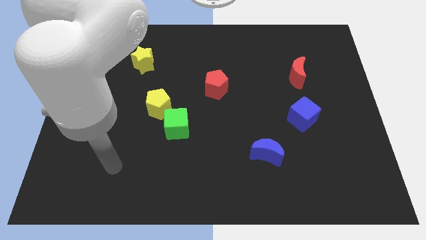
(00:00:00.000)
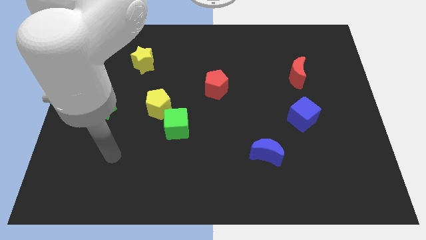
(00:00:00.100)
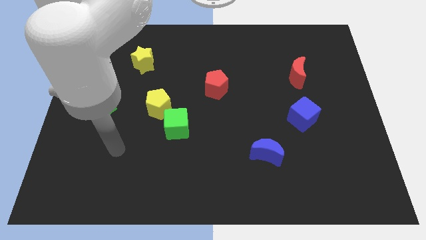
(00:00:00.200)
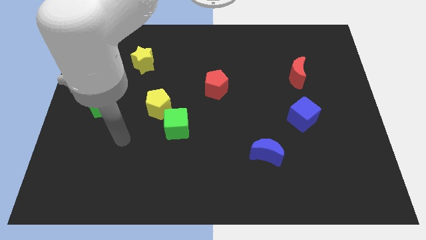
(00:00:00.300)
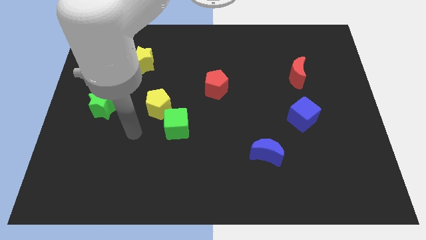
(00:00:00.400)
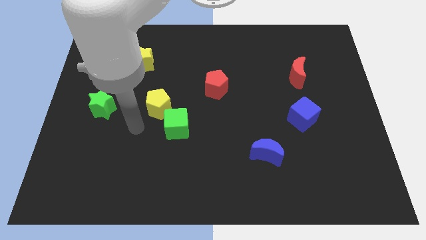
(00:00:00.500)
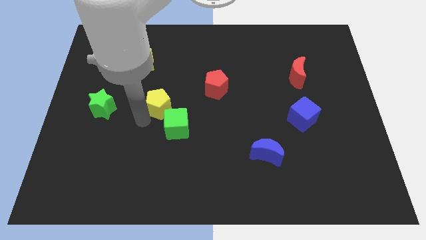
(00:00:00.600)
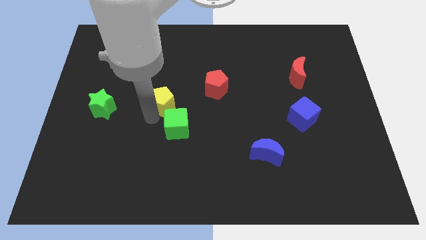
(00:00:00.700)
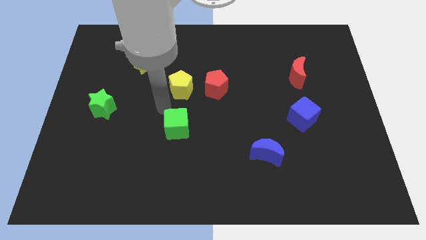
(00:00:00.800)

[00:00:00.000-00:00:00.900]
move the green cube away from the yellow pentagon

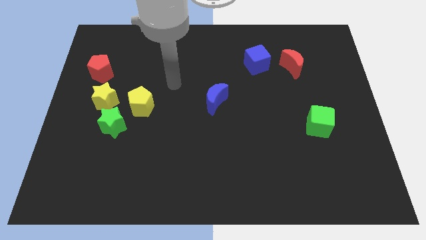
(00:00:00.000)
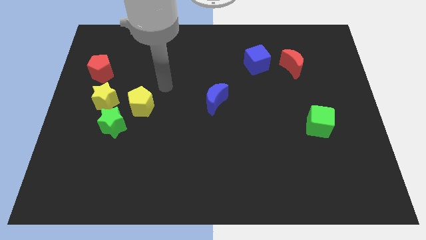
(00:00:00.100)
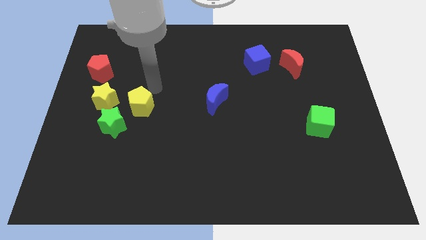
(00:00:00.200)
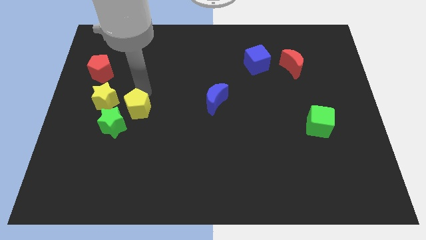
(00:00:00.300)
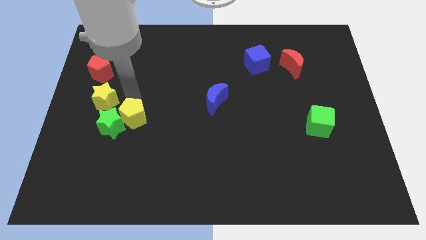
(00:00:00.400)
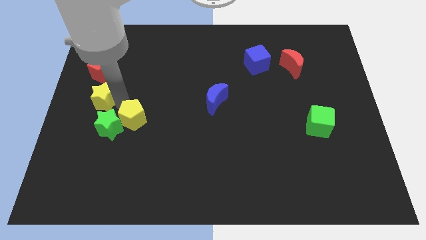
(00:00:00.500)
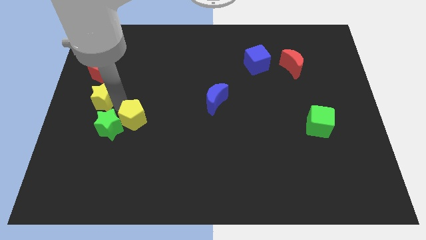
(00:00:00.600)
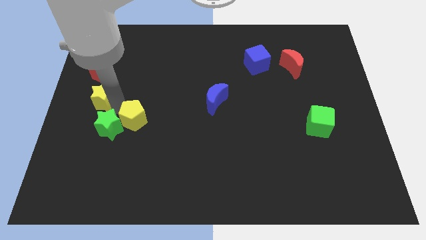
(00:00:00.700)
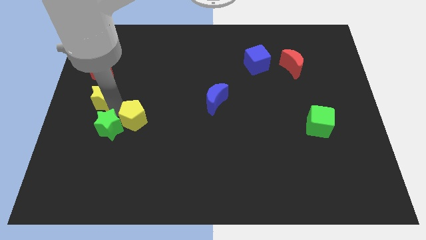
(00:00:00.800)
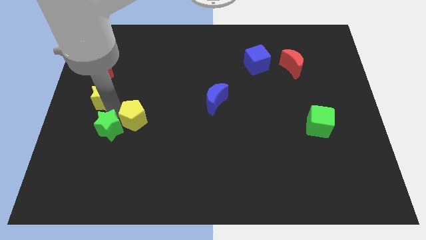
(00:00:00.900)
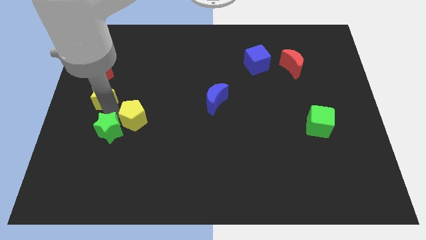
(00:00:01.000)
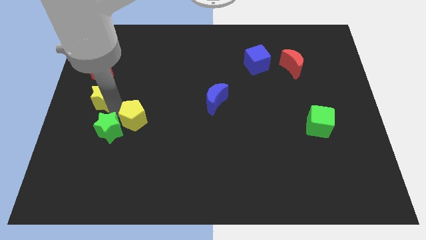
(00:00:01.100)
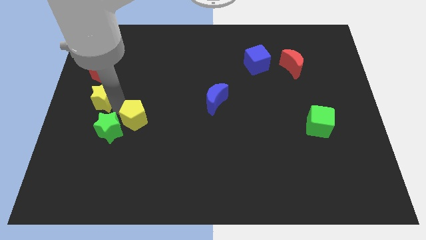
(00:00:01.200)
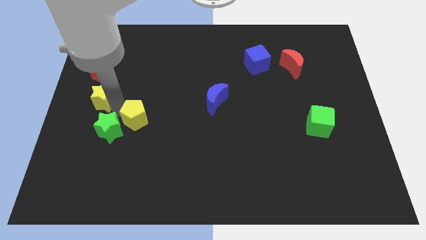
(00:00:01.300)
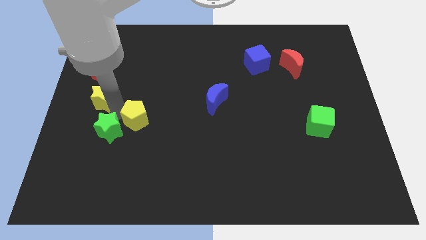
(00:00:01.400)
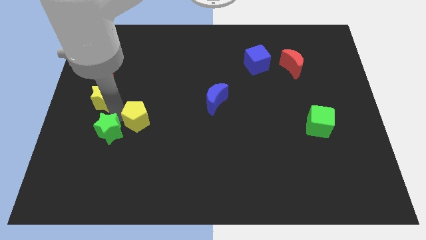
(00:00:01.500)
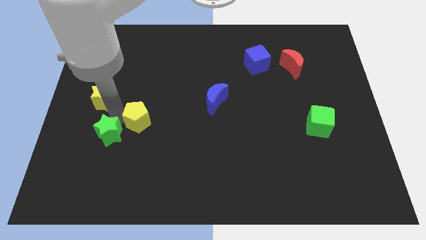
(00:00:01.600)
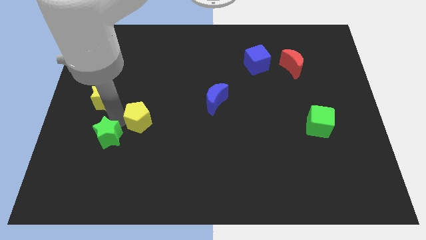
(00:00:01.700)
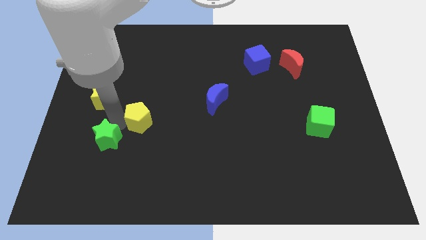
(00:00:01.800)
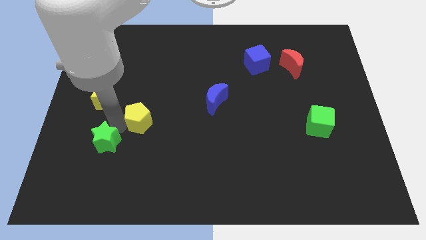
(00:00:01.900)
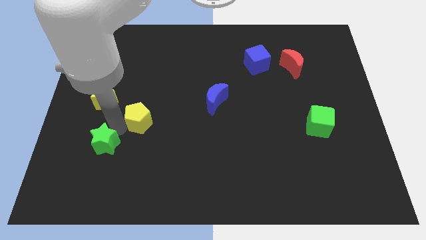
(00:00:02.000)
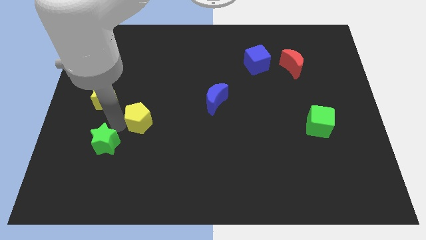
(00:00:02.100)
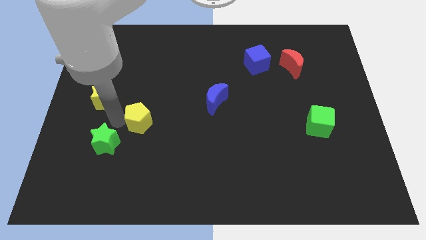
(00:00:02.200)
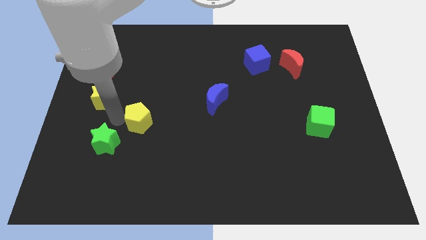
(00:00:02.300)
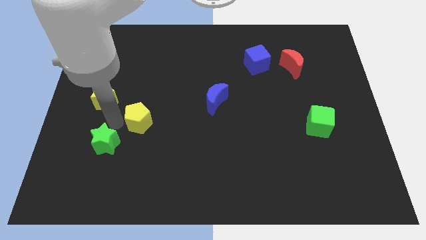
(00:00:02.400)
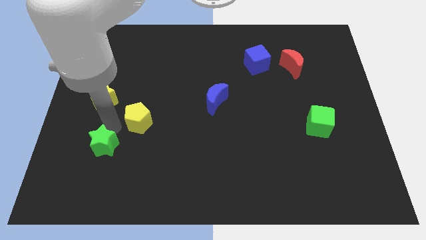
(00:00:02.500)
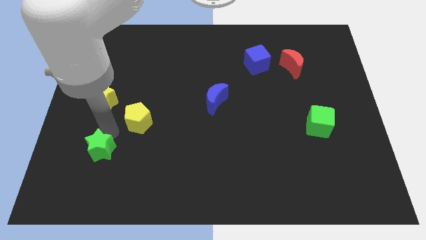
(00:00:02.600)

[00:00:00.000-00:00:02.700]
separate the green star from the yellow star and yellow pentagon

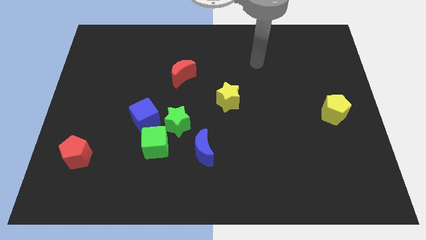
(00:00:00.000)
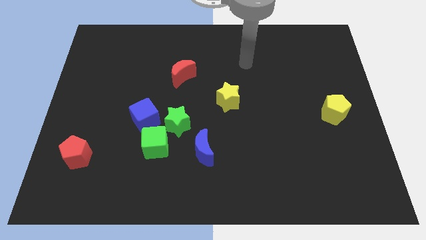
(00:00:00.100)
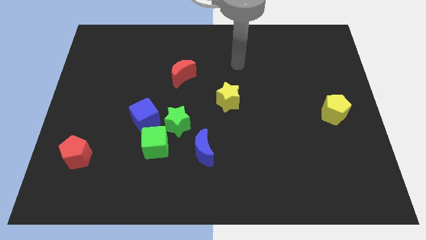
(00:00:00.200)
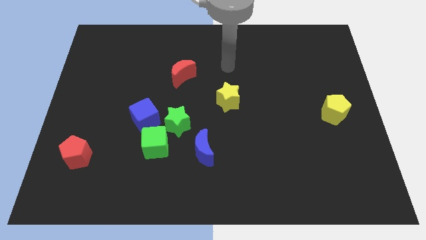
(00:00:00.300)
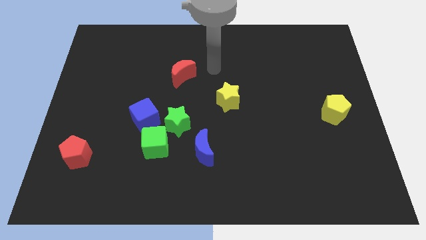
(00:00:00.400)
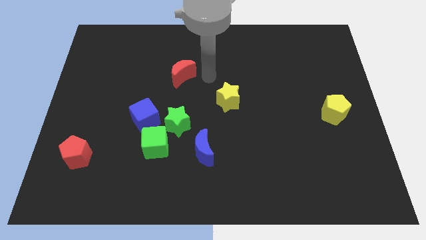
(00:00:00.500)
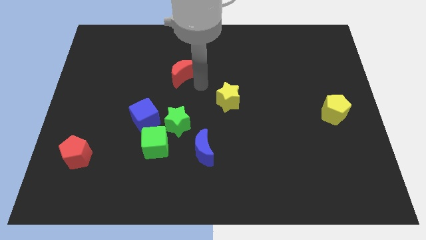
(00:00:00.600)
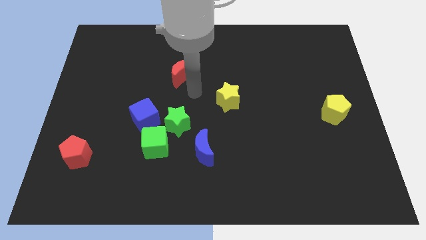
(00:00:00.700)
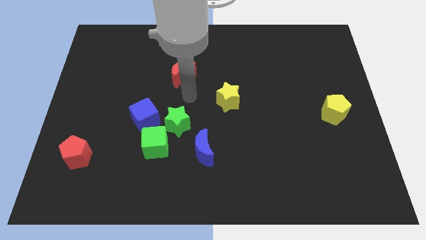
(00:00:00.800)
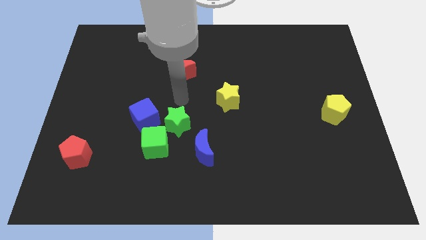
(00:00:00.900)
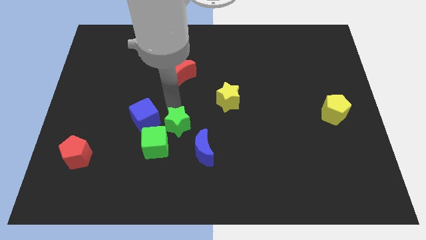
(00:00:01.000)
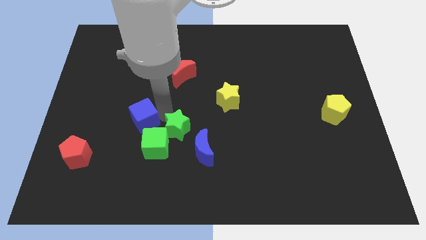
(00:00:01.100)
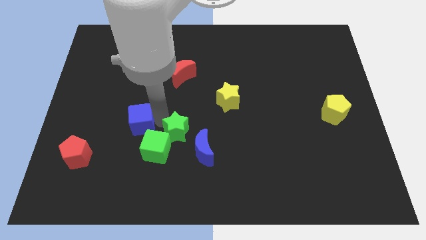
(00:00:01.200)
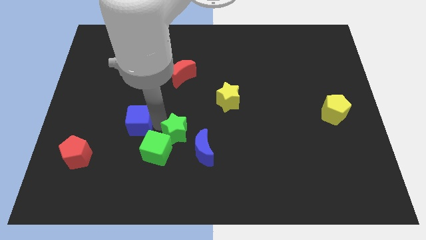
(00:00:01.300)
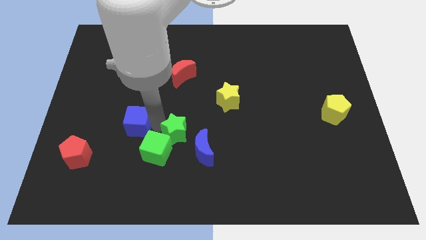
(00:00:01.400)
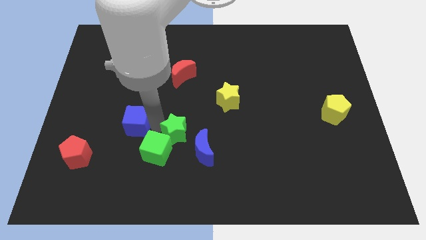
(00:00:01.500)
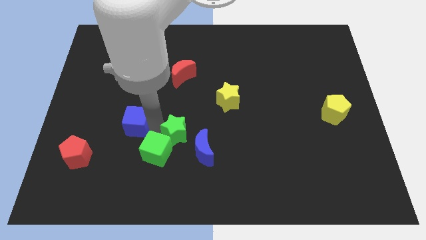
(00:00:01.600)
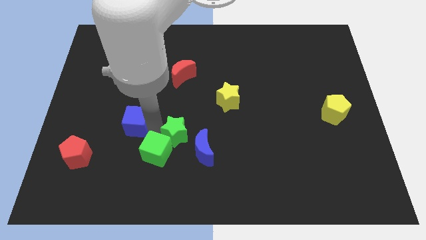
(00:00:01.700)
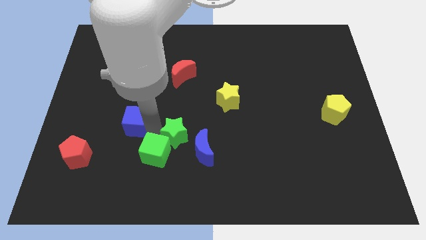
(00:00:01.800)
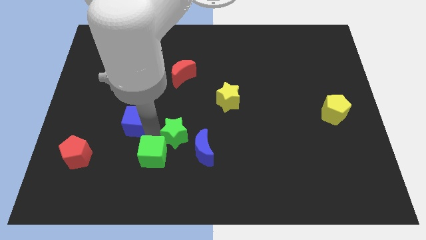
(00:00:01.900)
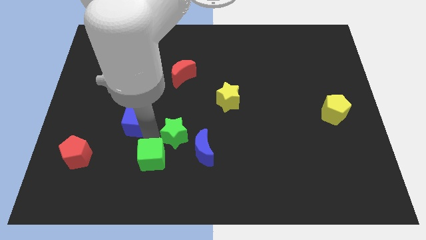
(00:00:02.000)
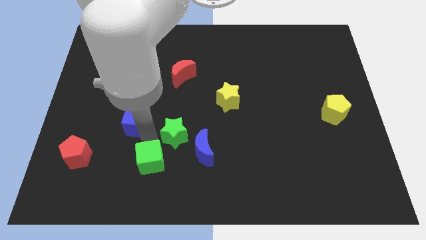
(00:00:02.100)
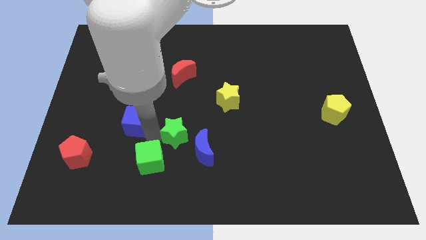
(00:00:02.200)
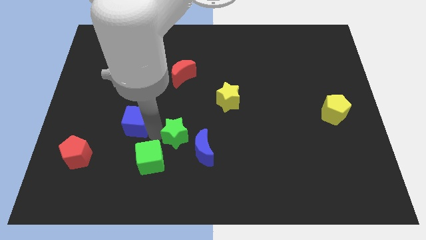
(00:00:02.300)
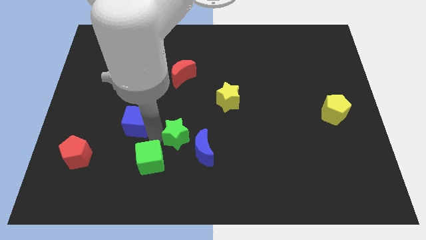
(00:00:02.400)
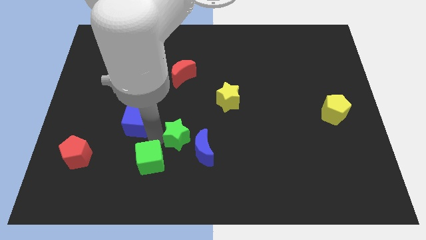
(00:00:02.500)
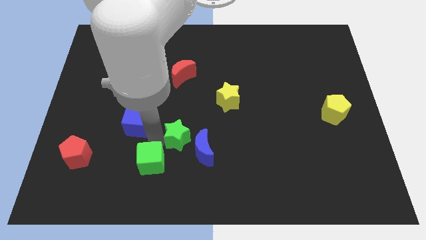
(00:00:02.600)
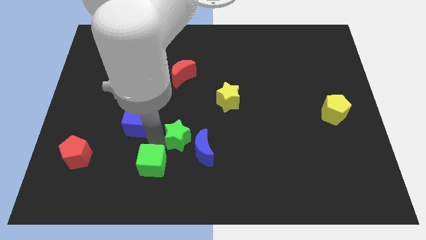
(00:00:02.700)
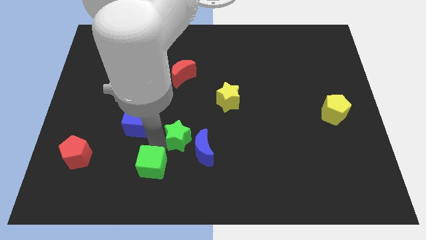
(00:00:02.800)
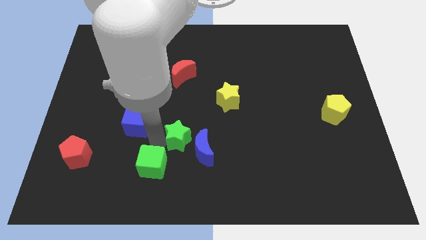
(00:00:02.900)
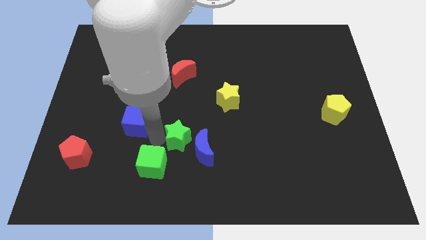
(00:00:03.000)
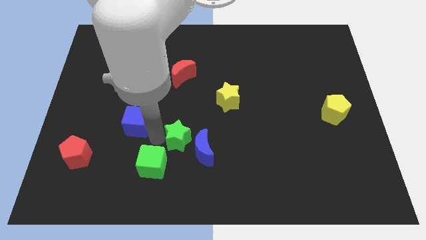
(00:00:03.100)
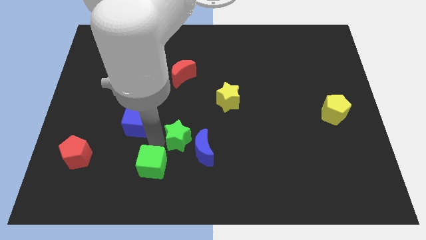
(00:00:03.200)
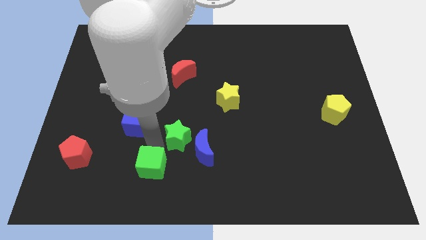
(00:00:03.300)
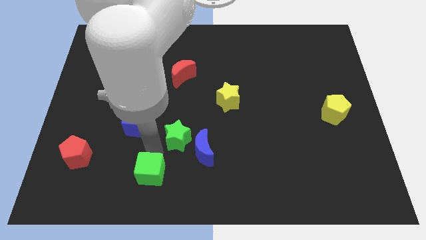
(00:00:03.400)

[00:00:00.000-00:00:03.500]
move the green cube away from the green star and blue cube

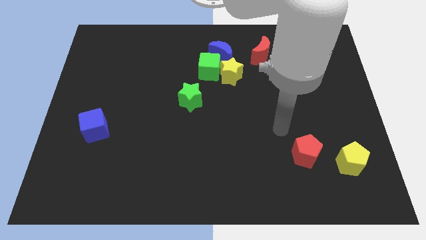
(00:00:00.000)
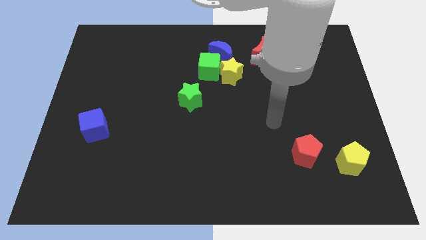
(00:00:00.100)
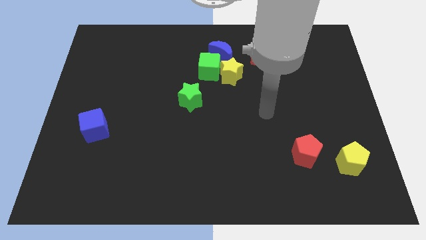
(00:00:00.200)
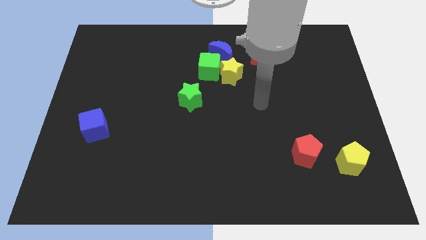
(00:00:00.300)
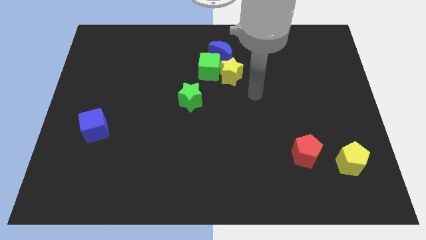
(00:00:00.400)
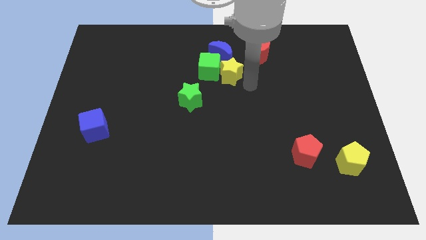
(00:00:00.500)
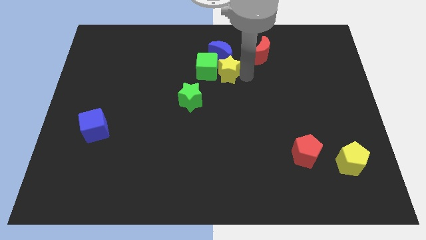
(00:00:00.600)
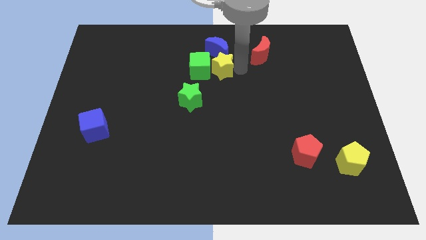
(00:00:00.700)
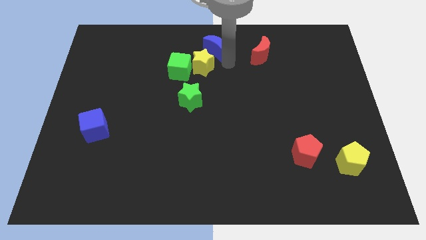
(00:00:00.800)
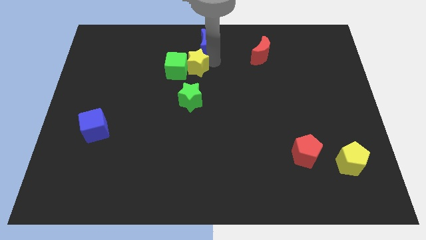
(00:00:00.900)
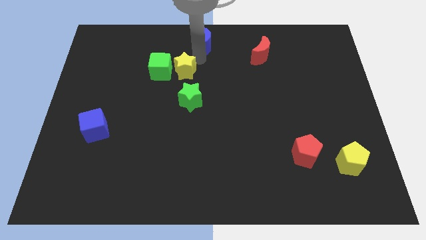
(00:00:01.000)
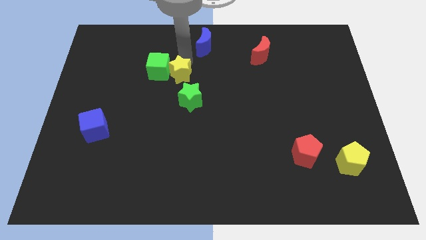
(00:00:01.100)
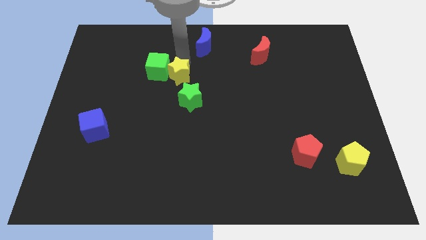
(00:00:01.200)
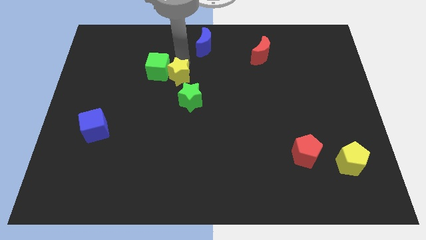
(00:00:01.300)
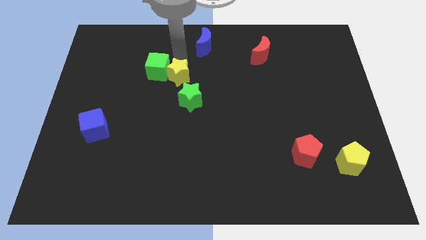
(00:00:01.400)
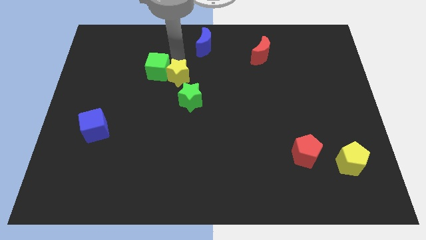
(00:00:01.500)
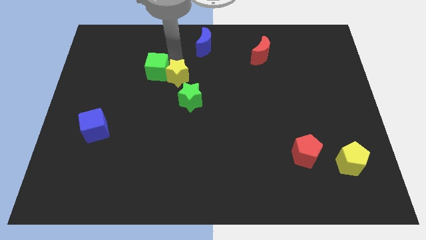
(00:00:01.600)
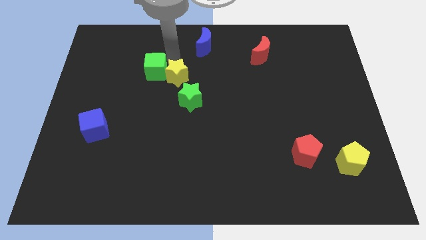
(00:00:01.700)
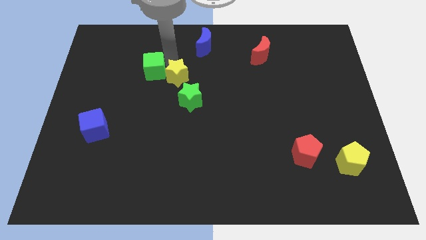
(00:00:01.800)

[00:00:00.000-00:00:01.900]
separate the green cube from the yellow star and blue moon
